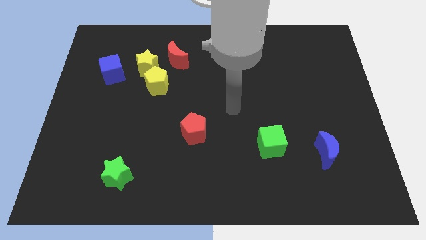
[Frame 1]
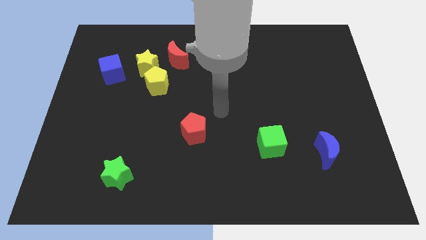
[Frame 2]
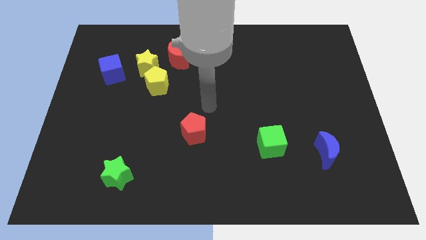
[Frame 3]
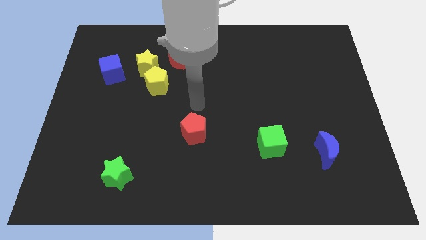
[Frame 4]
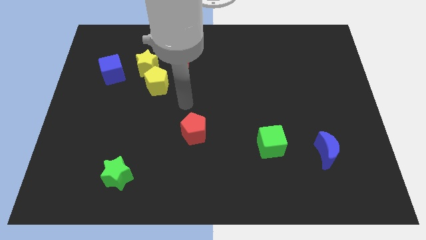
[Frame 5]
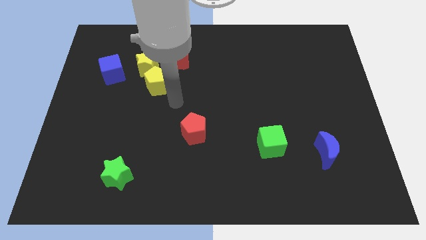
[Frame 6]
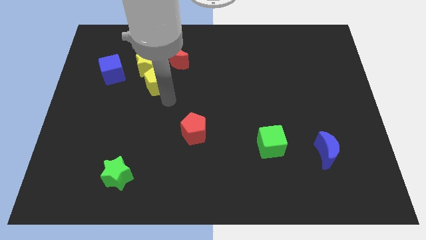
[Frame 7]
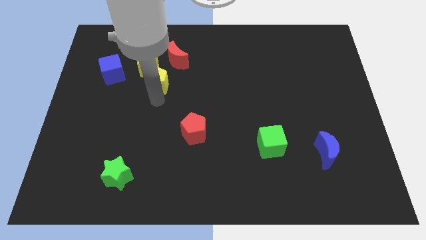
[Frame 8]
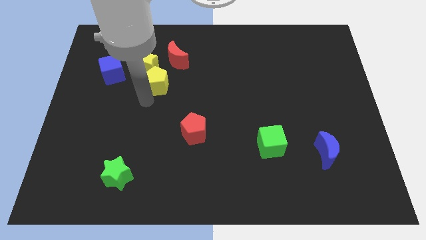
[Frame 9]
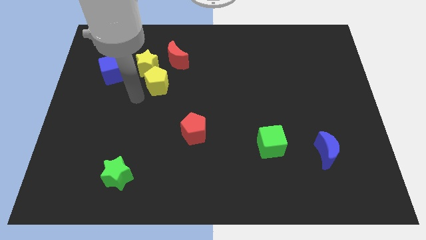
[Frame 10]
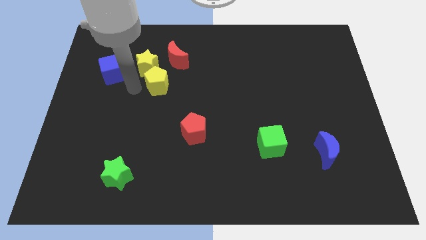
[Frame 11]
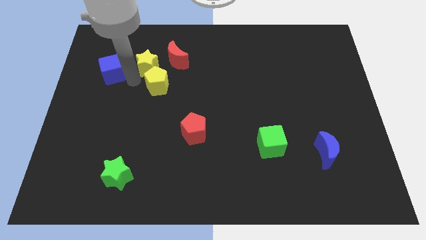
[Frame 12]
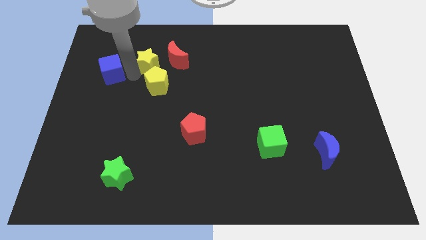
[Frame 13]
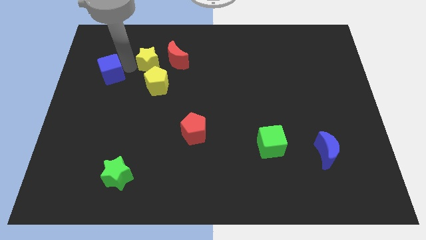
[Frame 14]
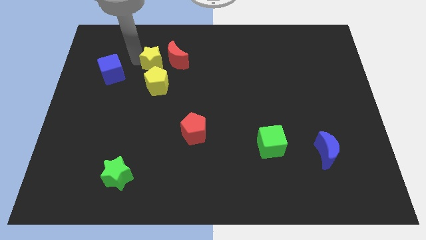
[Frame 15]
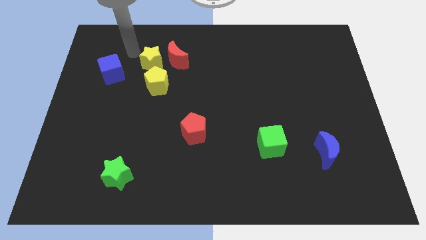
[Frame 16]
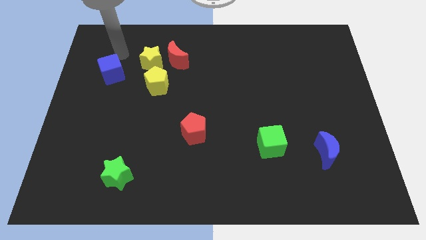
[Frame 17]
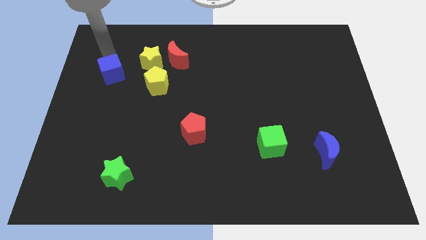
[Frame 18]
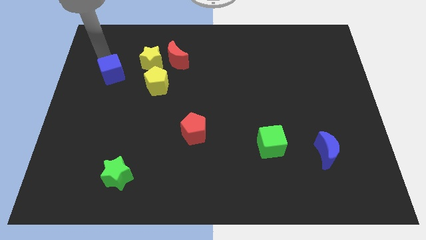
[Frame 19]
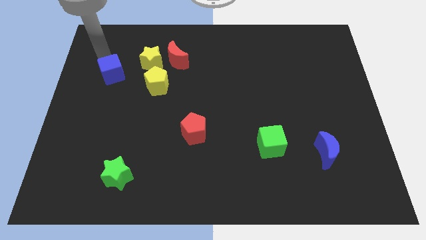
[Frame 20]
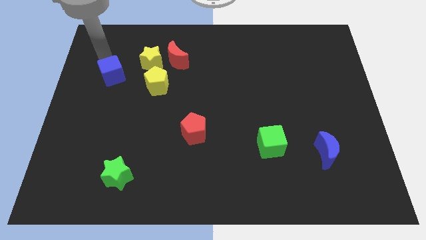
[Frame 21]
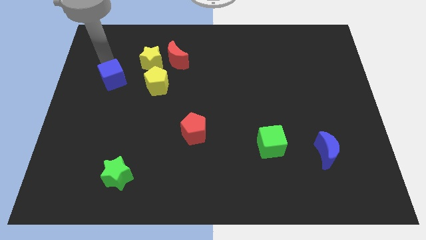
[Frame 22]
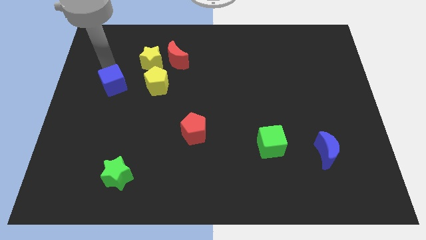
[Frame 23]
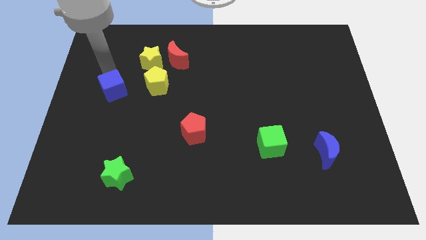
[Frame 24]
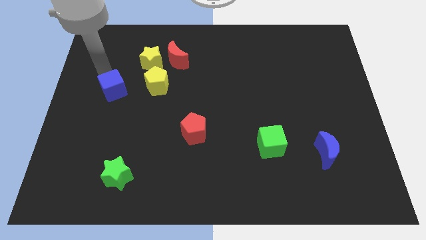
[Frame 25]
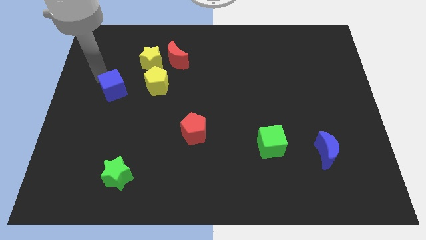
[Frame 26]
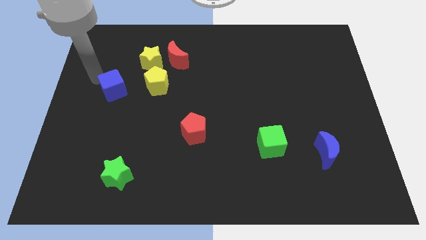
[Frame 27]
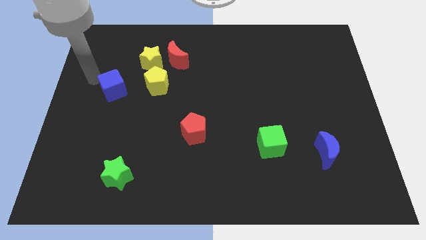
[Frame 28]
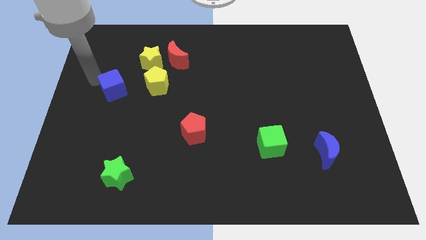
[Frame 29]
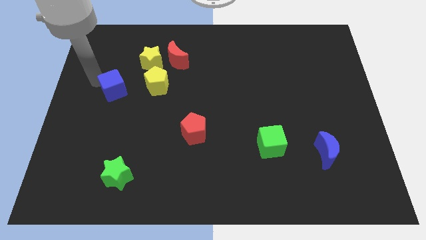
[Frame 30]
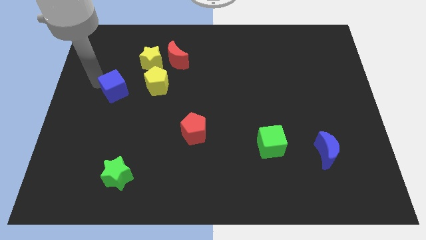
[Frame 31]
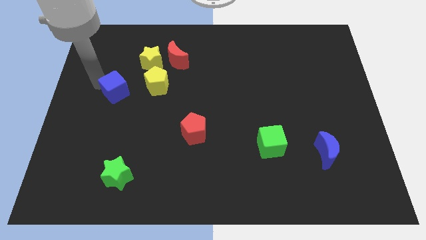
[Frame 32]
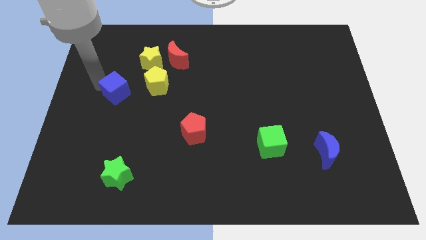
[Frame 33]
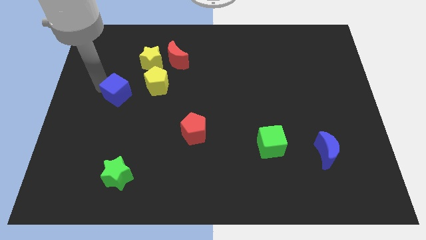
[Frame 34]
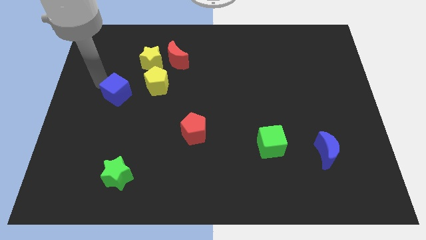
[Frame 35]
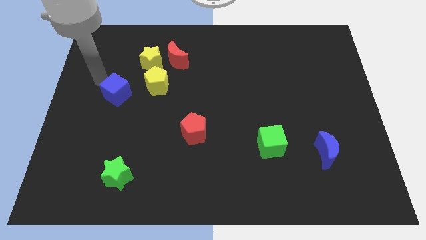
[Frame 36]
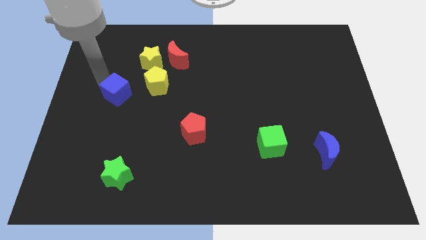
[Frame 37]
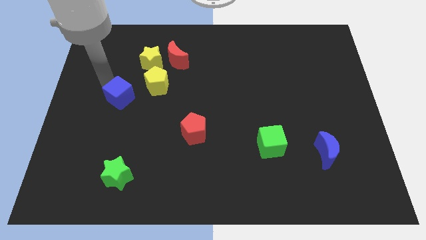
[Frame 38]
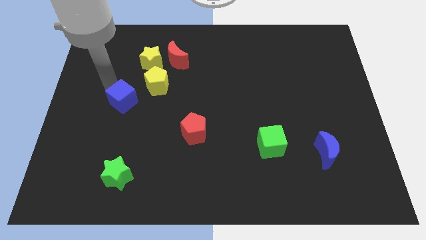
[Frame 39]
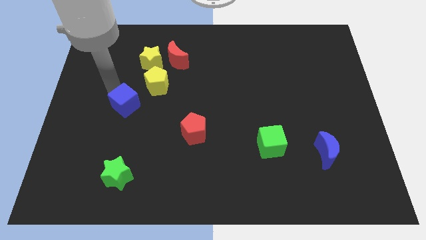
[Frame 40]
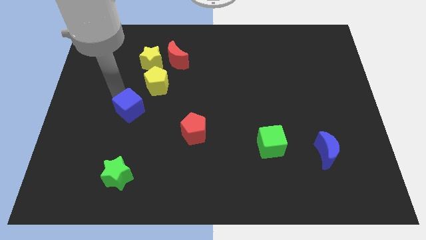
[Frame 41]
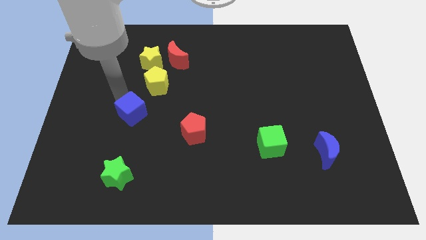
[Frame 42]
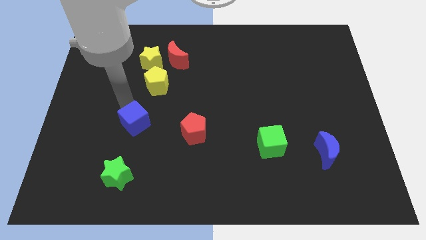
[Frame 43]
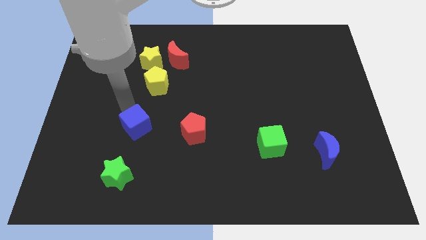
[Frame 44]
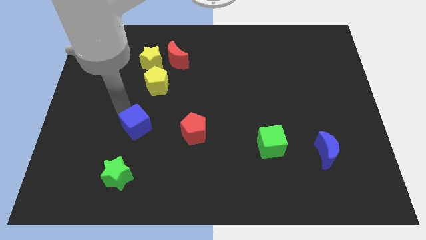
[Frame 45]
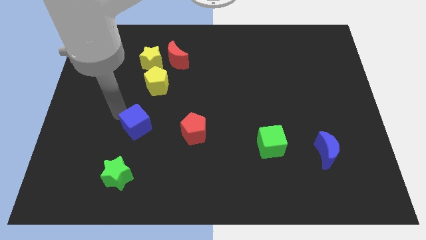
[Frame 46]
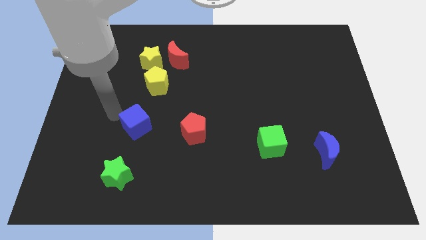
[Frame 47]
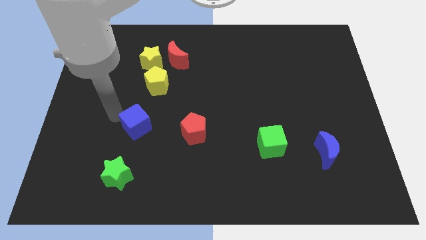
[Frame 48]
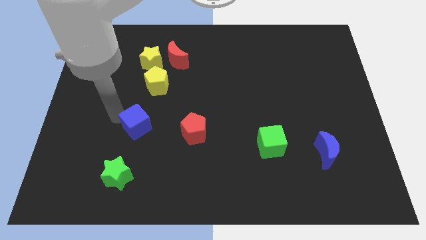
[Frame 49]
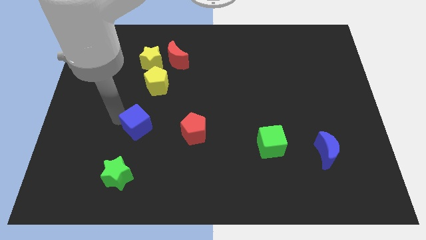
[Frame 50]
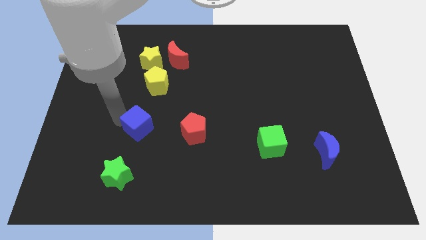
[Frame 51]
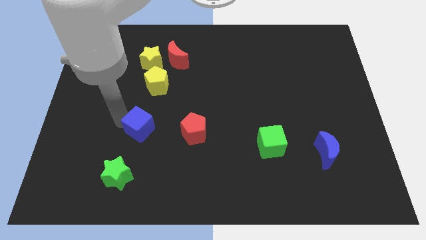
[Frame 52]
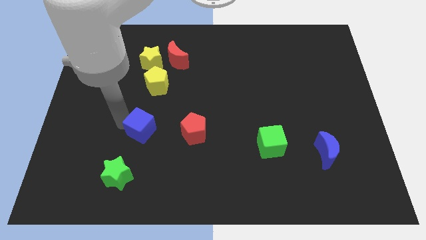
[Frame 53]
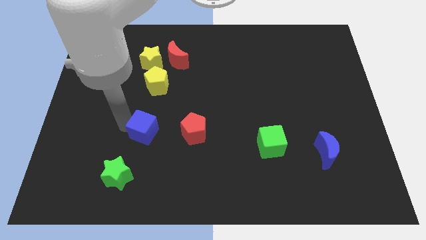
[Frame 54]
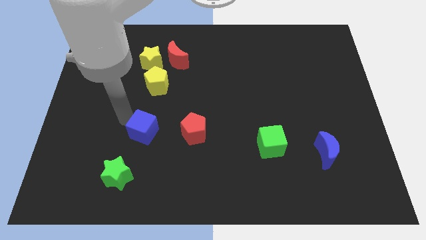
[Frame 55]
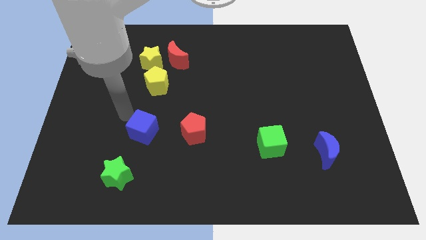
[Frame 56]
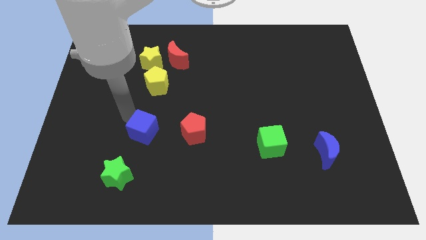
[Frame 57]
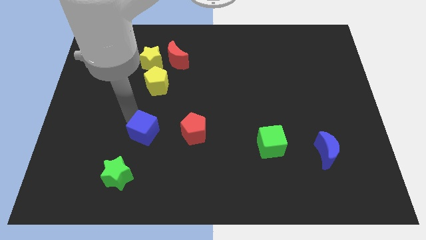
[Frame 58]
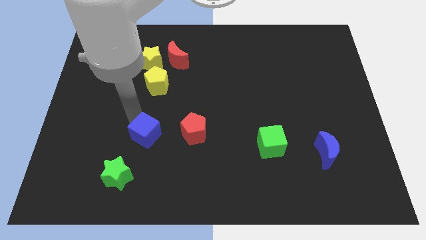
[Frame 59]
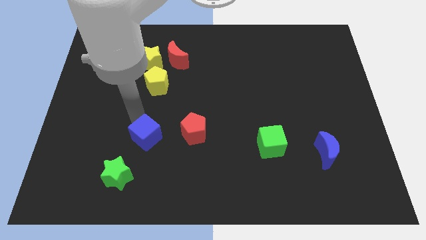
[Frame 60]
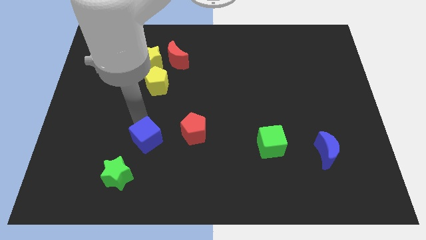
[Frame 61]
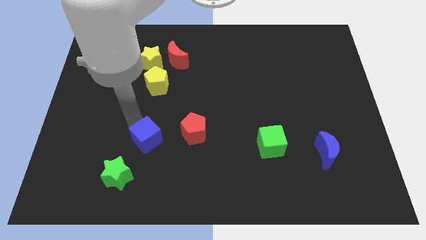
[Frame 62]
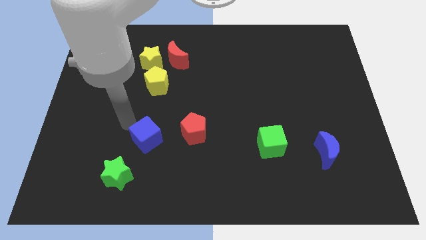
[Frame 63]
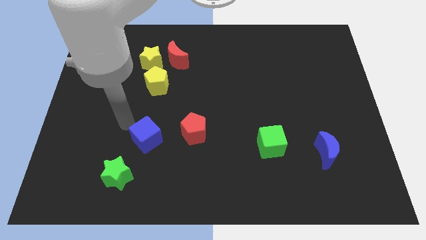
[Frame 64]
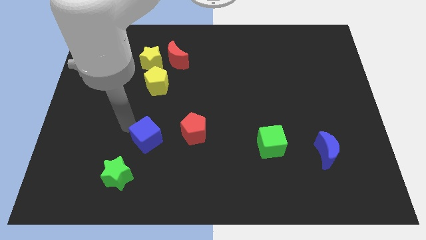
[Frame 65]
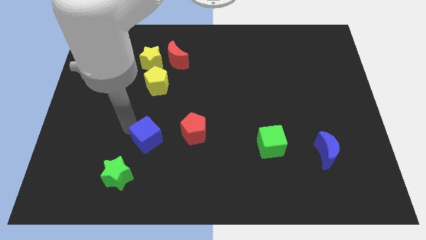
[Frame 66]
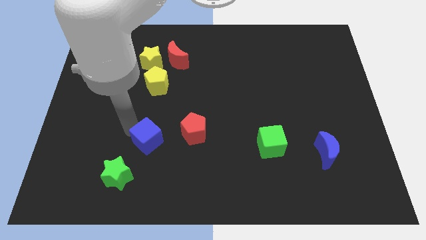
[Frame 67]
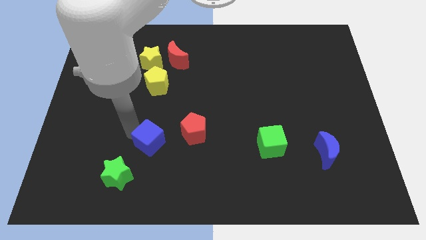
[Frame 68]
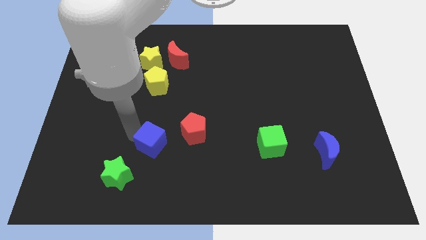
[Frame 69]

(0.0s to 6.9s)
put the blue cube diagonally down and to the left of the red pentagon

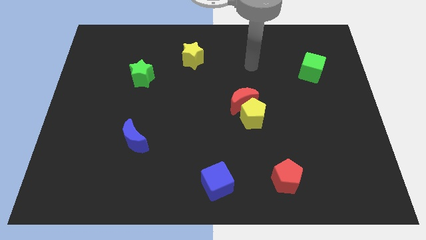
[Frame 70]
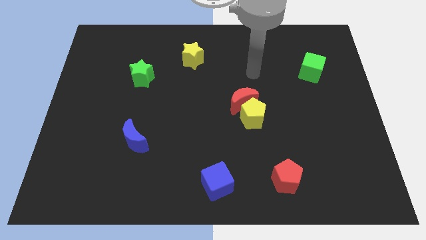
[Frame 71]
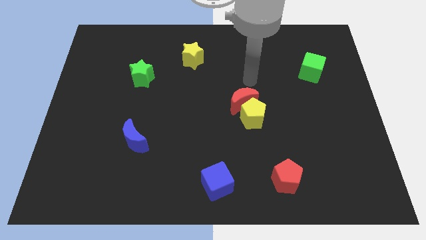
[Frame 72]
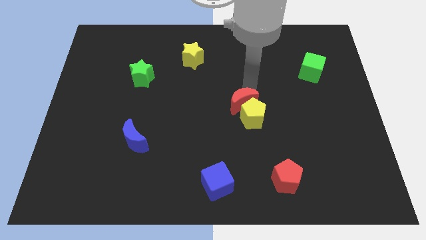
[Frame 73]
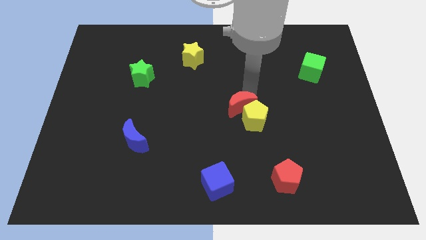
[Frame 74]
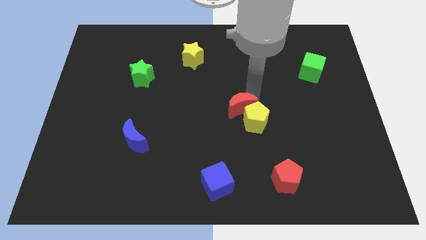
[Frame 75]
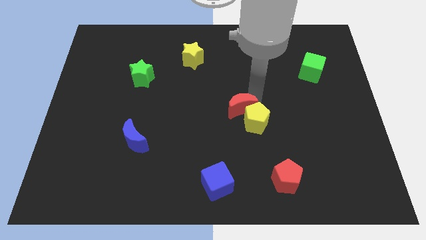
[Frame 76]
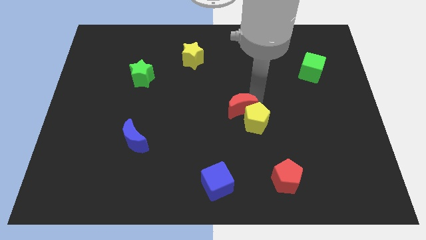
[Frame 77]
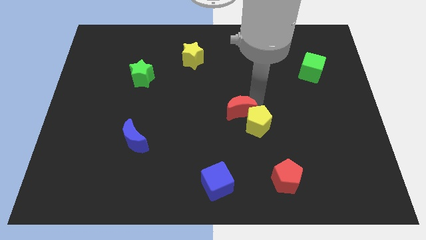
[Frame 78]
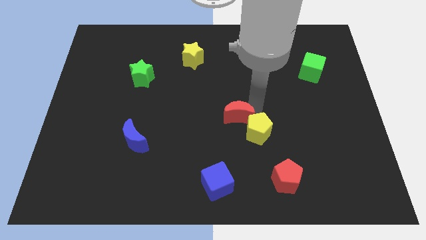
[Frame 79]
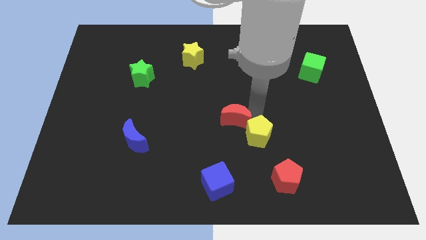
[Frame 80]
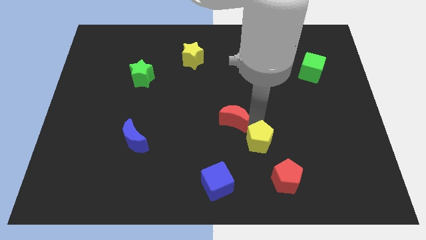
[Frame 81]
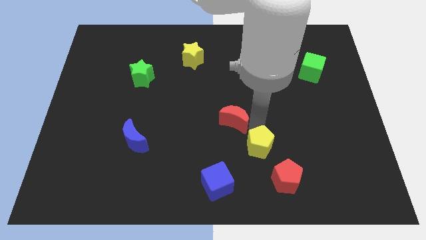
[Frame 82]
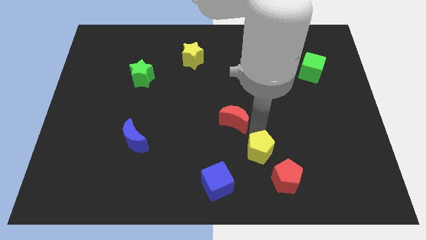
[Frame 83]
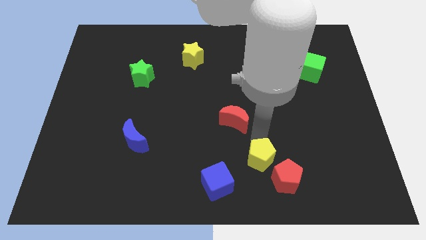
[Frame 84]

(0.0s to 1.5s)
slide the yellow pentagon left of the red pentagon
